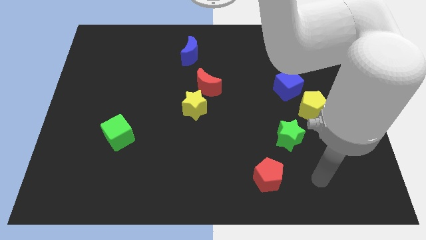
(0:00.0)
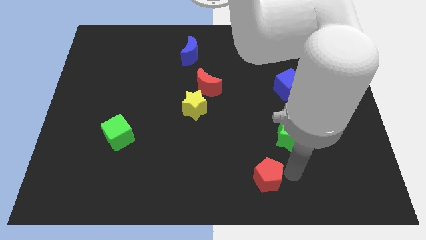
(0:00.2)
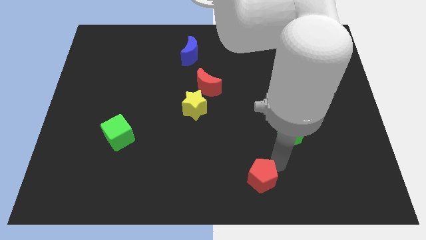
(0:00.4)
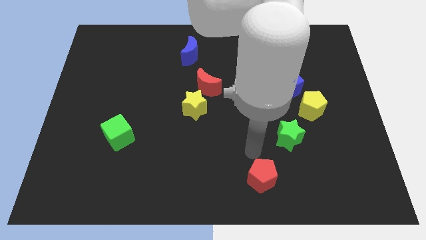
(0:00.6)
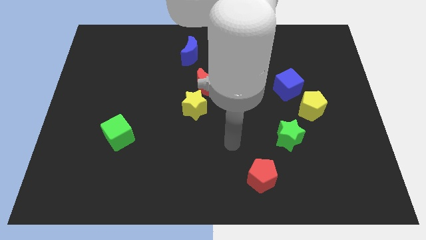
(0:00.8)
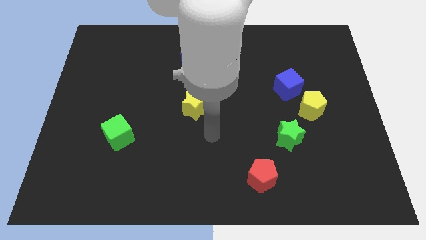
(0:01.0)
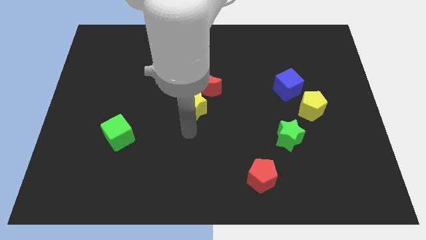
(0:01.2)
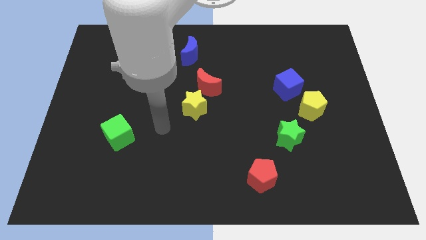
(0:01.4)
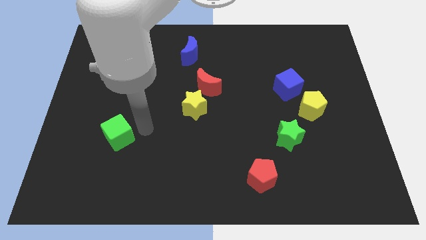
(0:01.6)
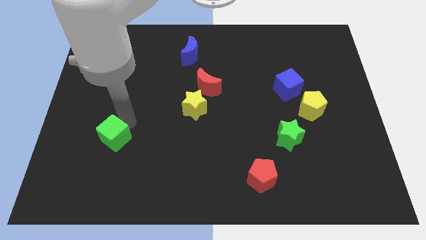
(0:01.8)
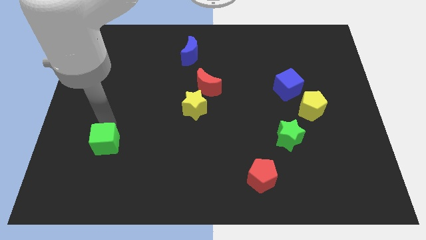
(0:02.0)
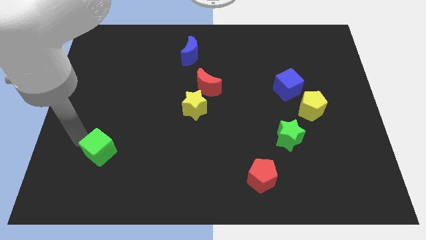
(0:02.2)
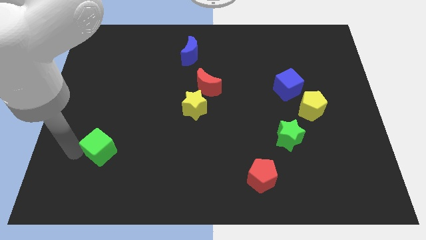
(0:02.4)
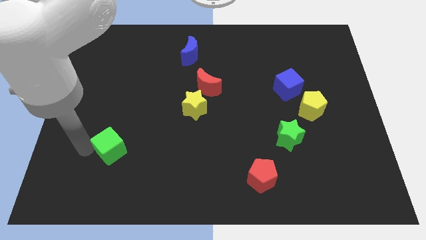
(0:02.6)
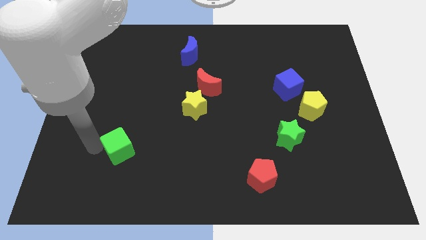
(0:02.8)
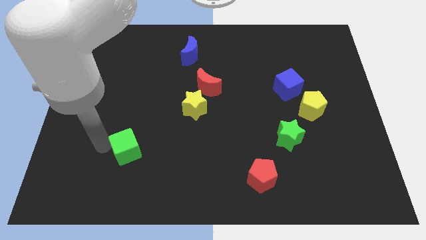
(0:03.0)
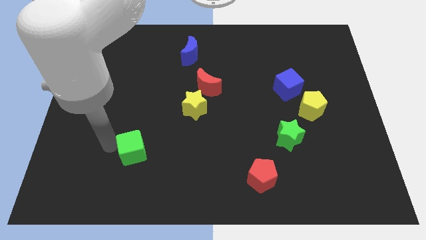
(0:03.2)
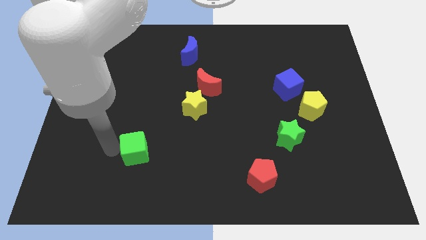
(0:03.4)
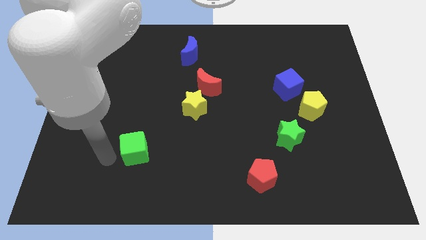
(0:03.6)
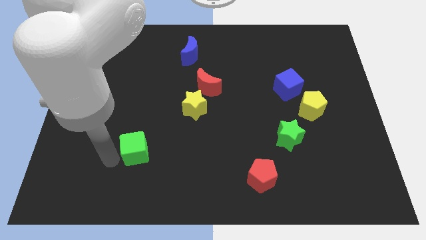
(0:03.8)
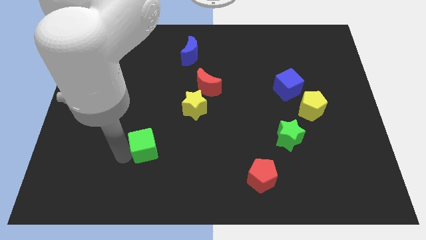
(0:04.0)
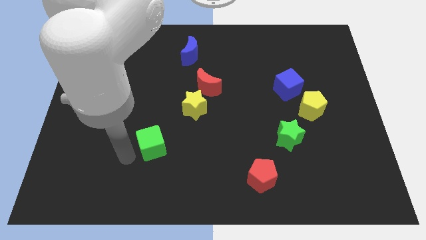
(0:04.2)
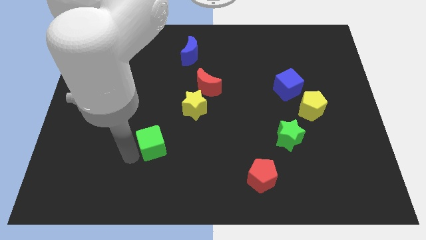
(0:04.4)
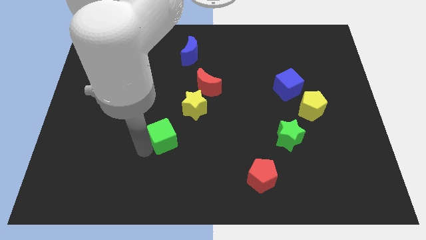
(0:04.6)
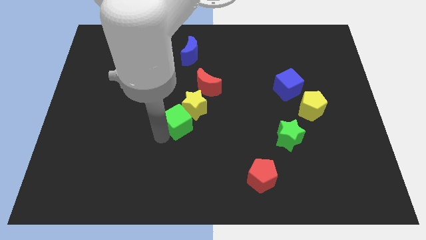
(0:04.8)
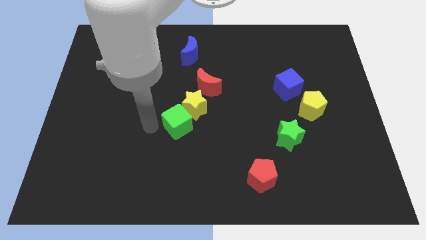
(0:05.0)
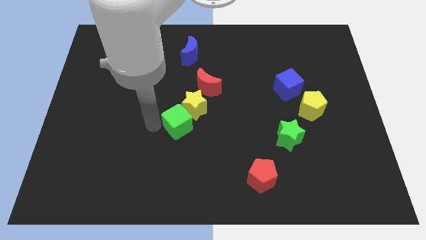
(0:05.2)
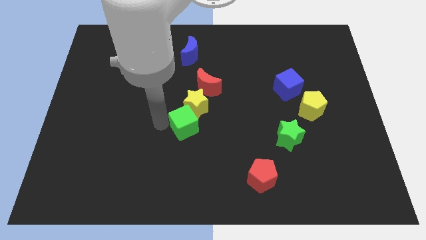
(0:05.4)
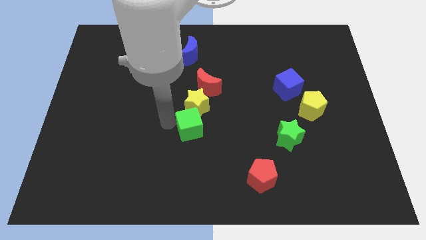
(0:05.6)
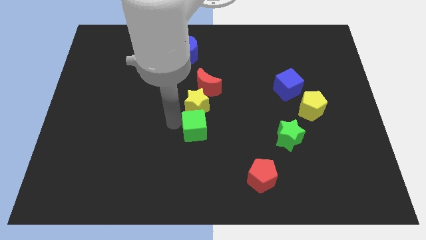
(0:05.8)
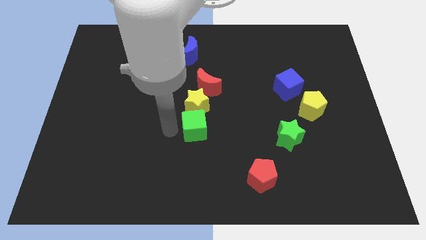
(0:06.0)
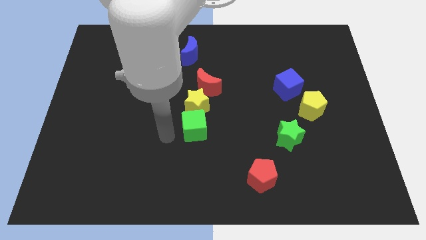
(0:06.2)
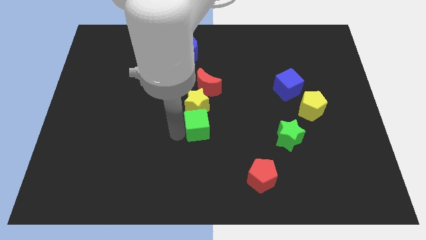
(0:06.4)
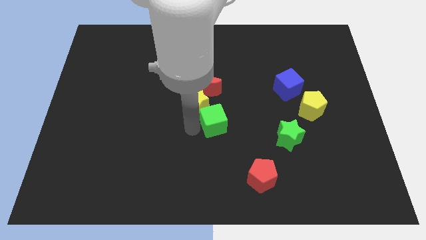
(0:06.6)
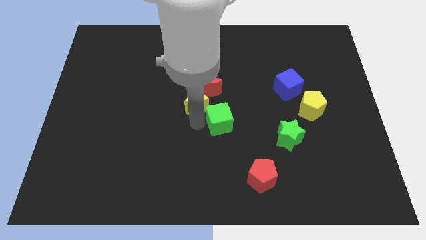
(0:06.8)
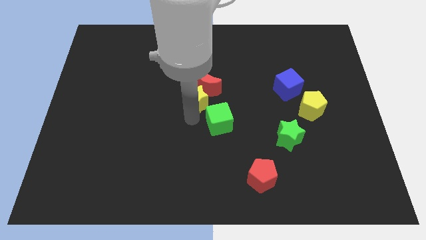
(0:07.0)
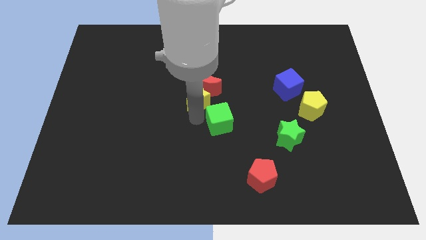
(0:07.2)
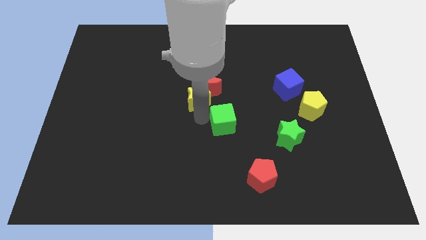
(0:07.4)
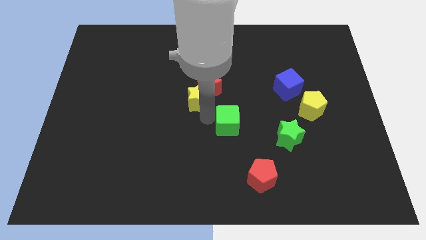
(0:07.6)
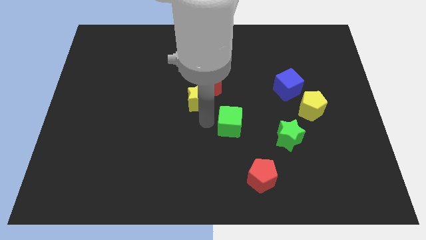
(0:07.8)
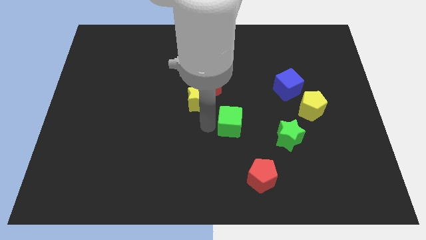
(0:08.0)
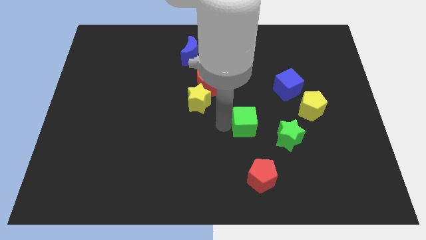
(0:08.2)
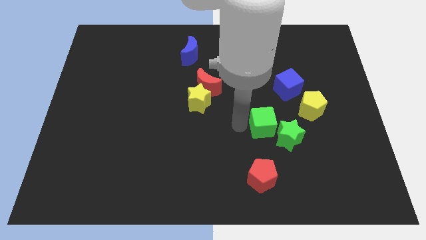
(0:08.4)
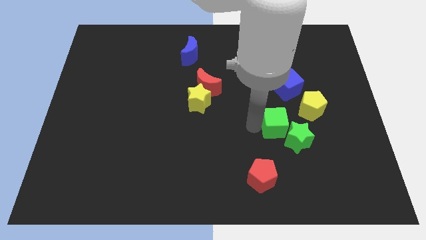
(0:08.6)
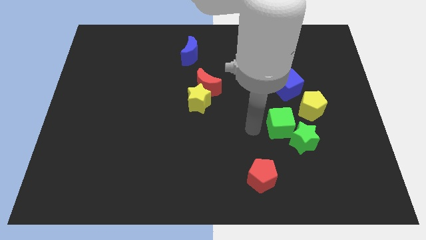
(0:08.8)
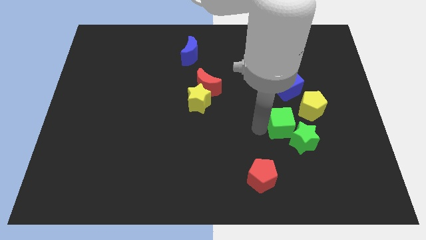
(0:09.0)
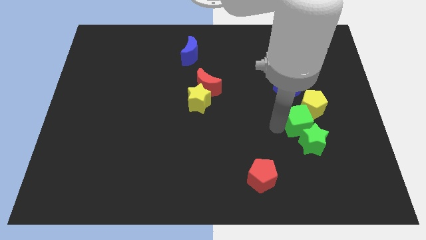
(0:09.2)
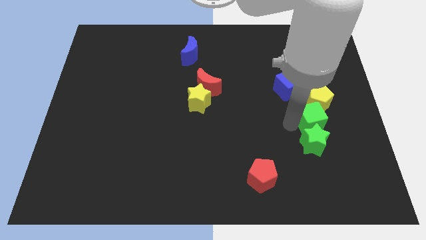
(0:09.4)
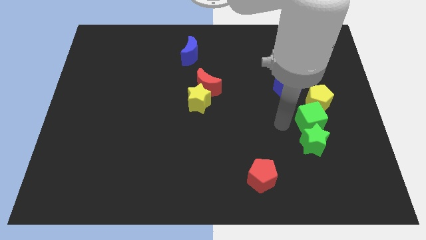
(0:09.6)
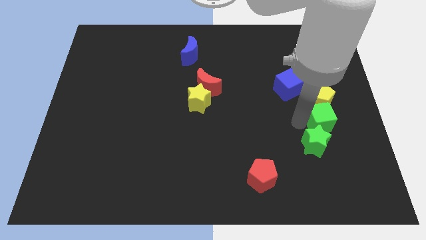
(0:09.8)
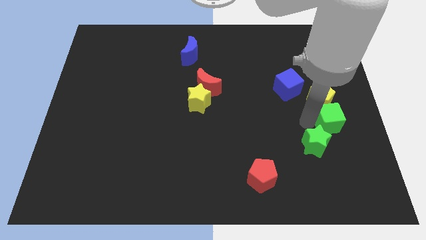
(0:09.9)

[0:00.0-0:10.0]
put the green cube to the right side of the board

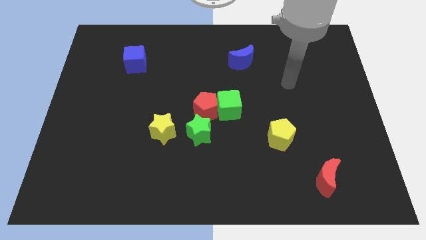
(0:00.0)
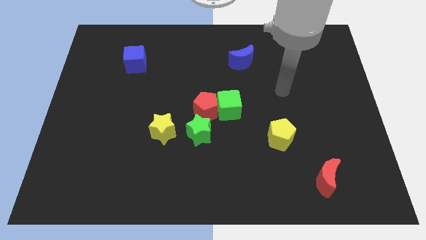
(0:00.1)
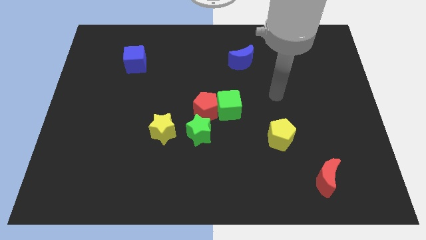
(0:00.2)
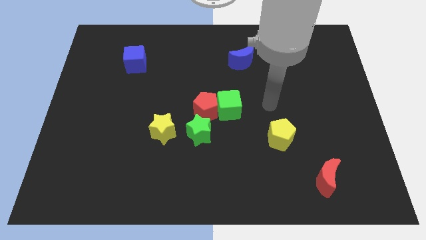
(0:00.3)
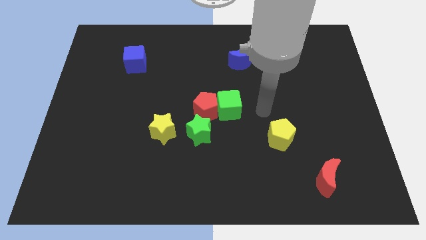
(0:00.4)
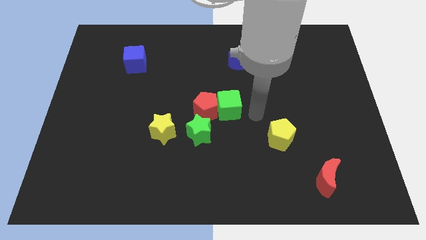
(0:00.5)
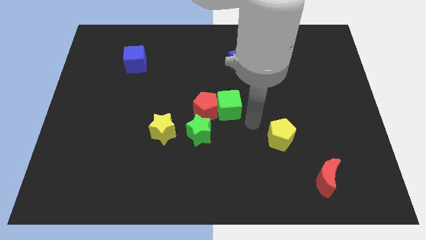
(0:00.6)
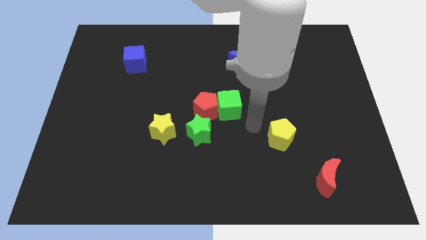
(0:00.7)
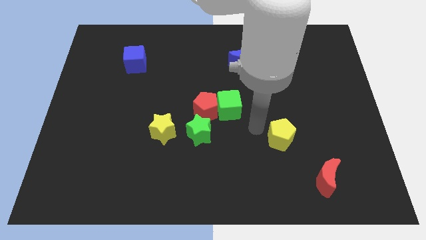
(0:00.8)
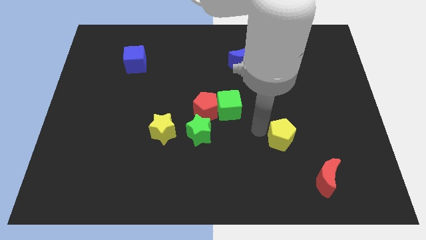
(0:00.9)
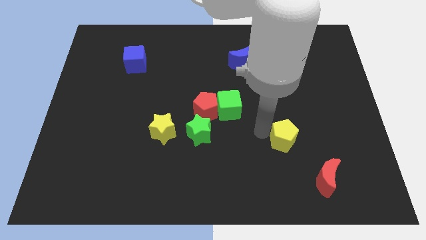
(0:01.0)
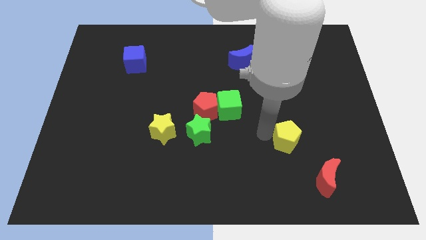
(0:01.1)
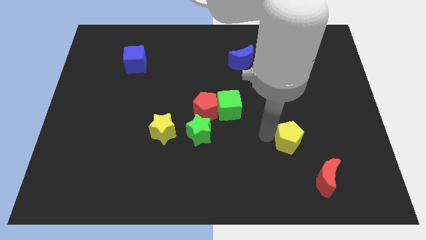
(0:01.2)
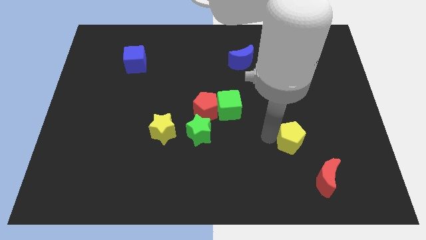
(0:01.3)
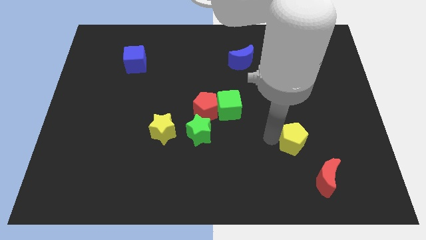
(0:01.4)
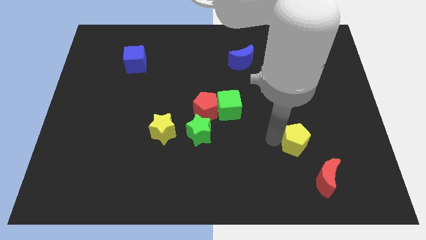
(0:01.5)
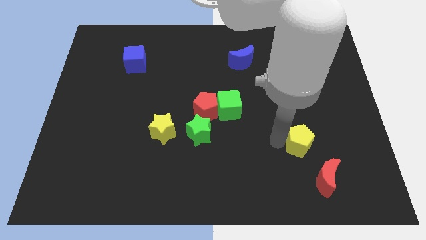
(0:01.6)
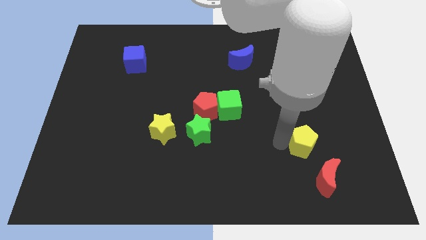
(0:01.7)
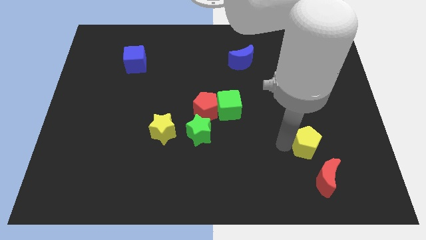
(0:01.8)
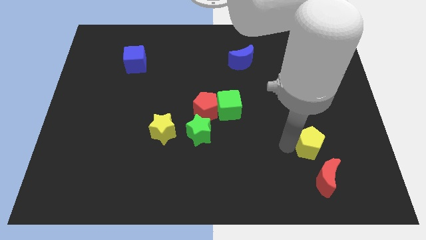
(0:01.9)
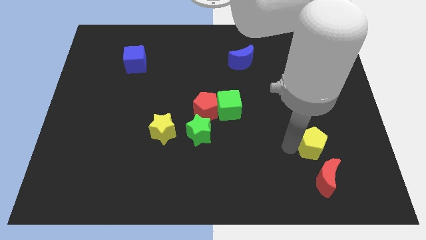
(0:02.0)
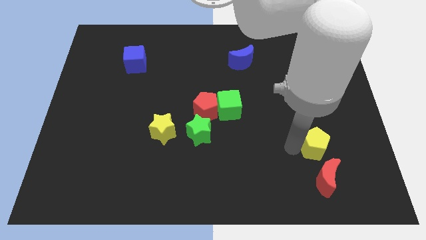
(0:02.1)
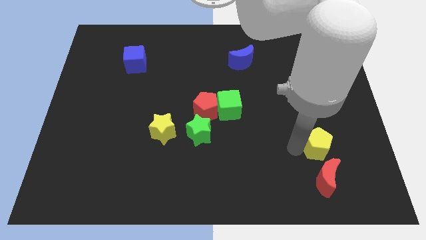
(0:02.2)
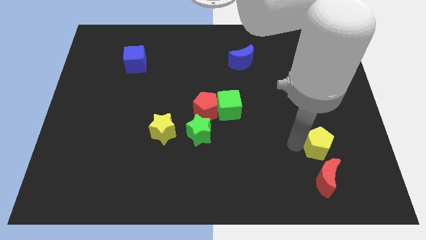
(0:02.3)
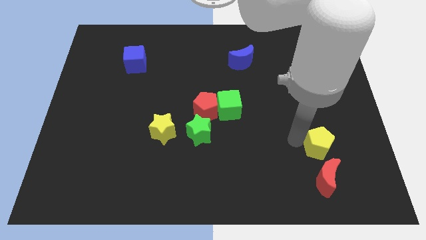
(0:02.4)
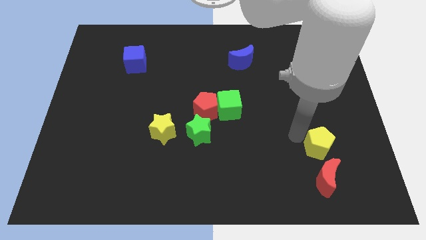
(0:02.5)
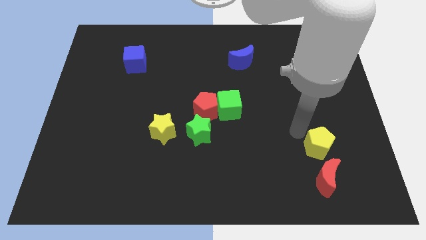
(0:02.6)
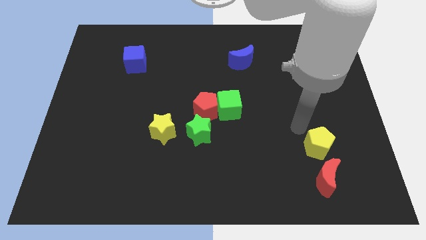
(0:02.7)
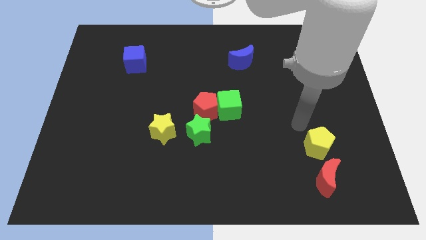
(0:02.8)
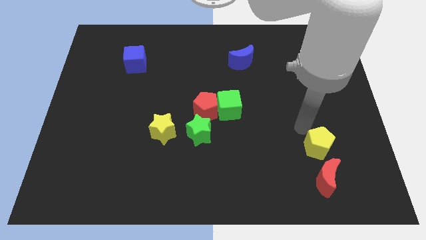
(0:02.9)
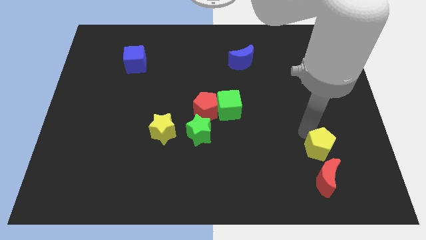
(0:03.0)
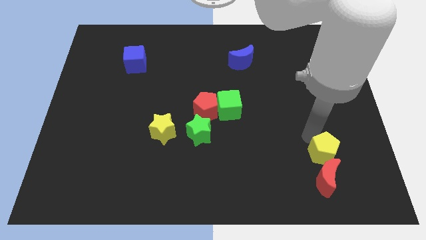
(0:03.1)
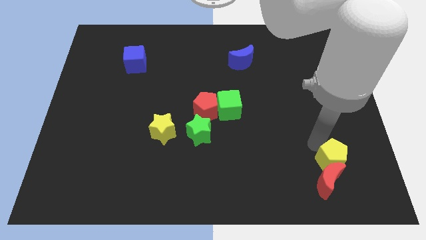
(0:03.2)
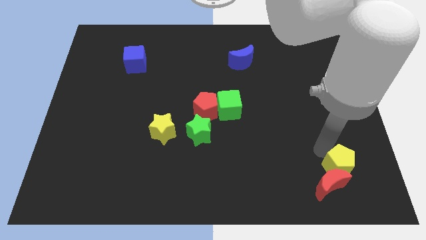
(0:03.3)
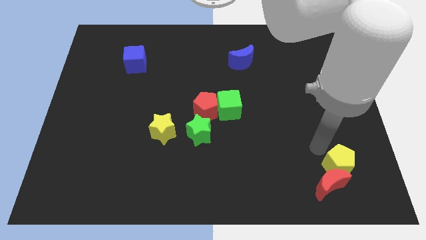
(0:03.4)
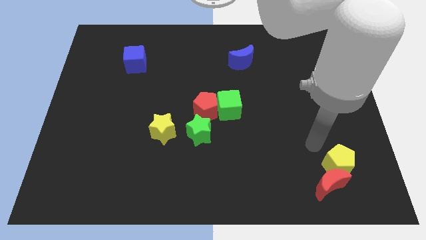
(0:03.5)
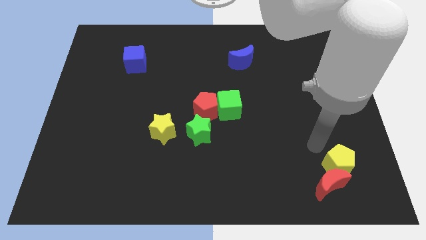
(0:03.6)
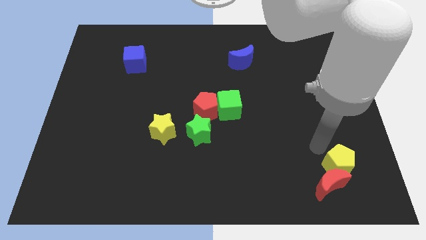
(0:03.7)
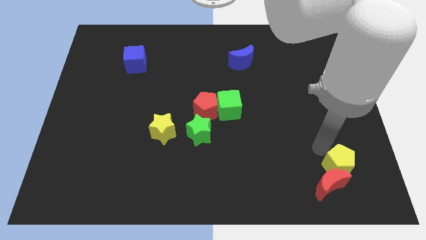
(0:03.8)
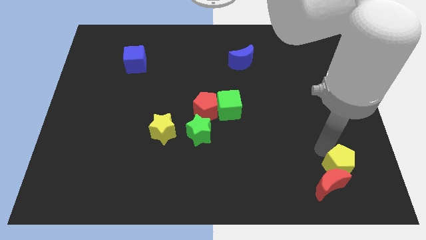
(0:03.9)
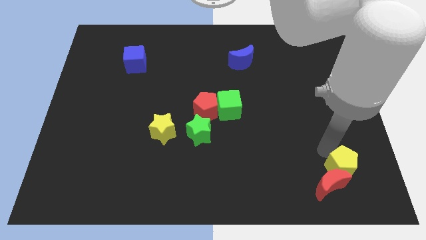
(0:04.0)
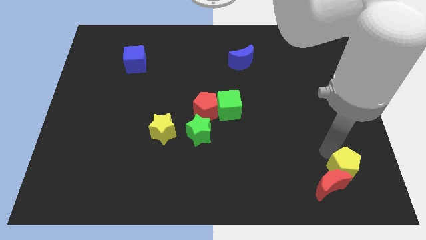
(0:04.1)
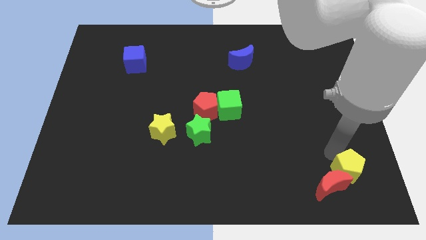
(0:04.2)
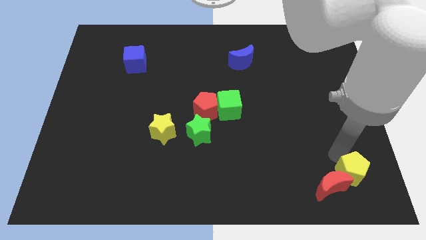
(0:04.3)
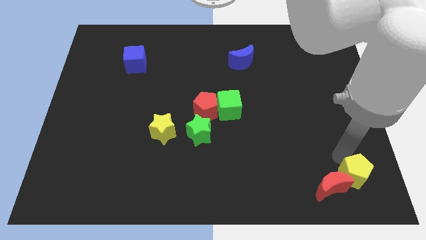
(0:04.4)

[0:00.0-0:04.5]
move the yellow pentagon to the bottom right
